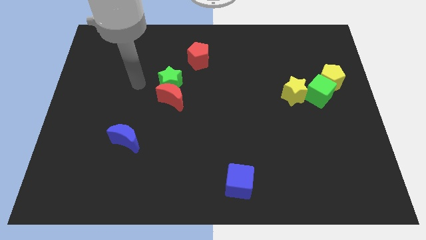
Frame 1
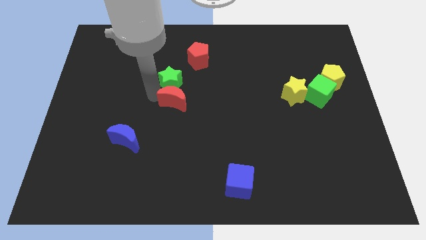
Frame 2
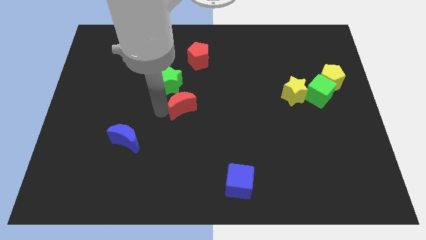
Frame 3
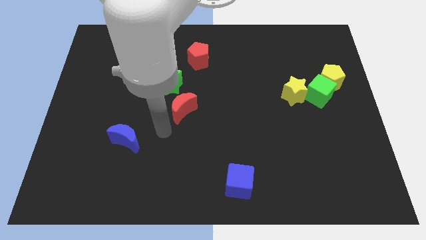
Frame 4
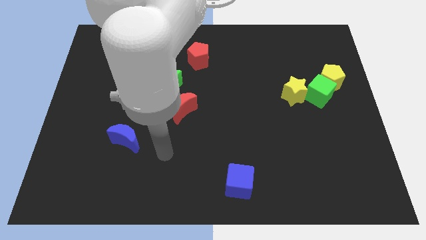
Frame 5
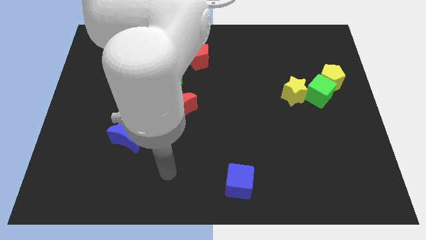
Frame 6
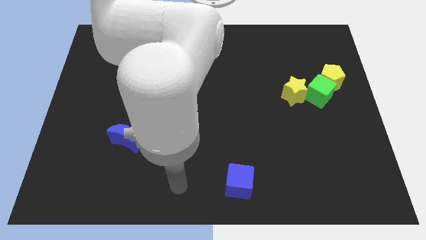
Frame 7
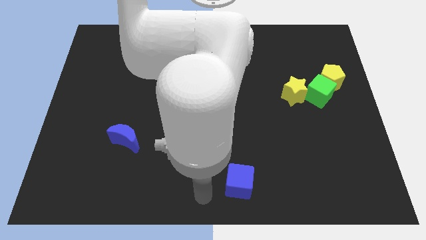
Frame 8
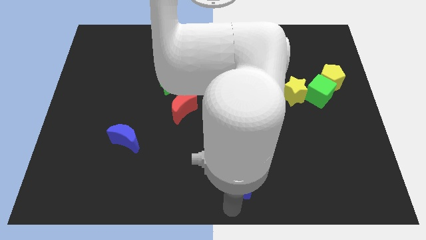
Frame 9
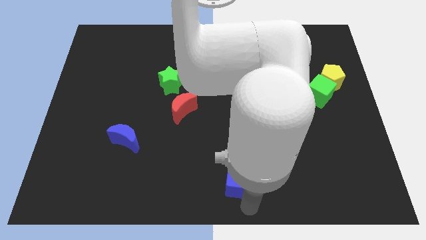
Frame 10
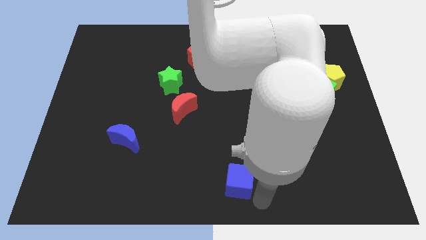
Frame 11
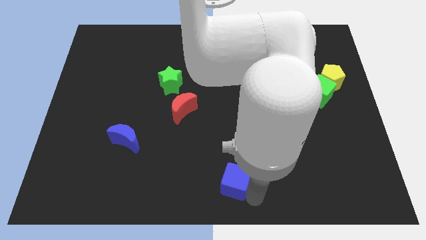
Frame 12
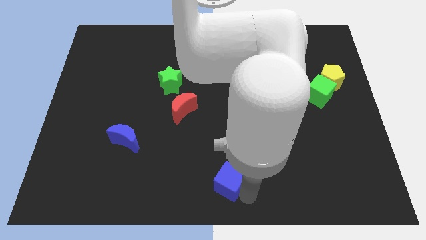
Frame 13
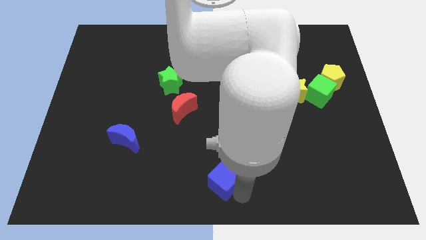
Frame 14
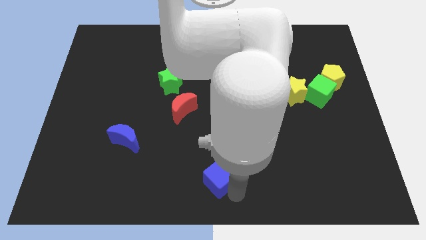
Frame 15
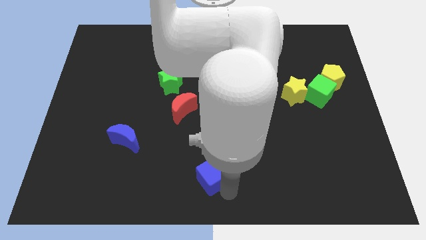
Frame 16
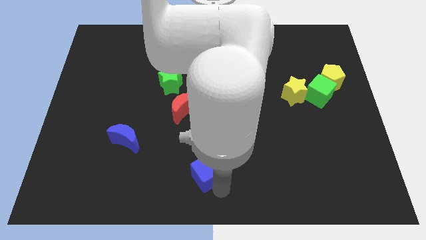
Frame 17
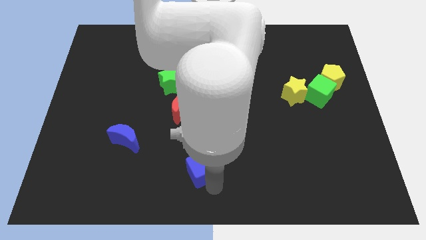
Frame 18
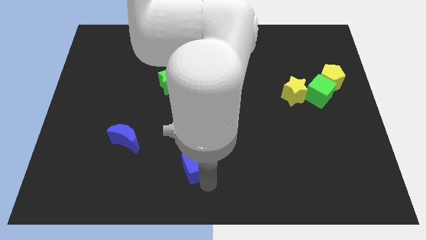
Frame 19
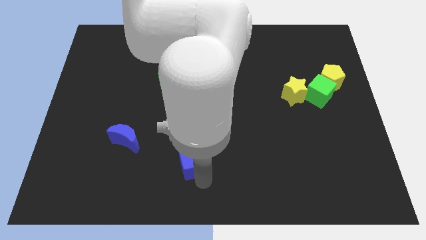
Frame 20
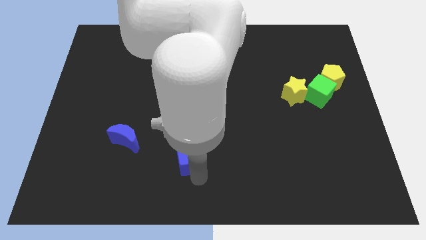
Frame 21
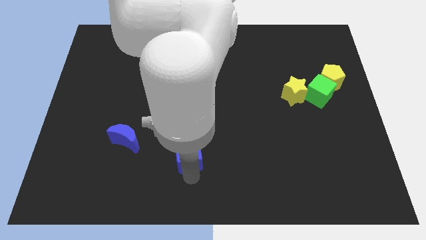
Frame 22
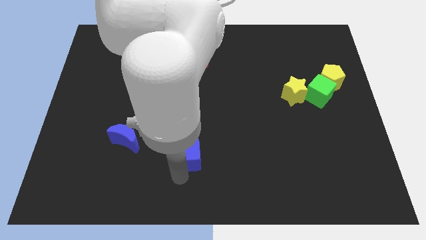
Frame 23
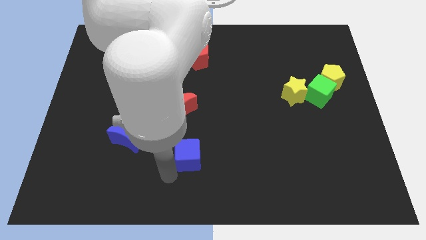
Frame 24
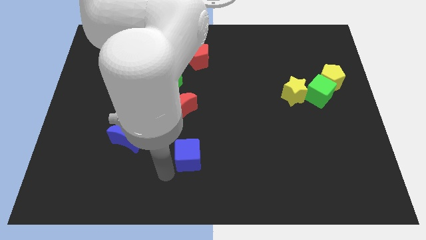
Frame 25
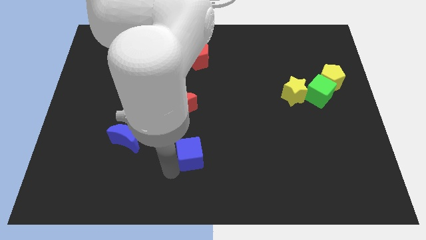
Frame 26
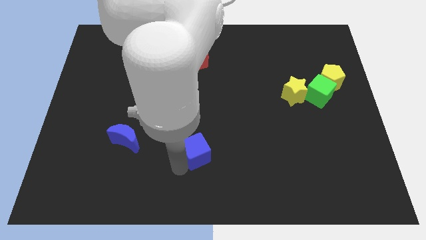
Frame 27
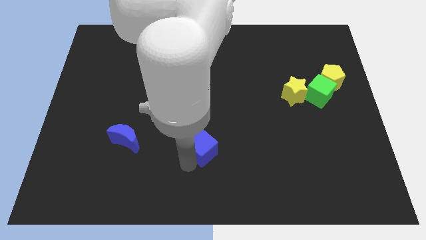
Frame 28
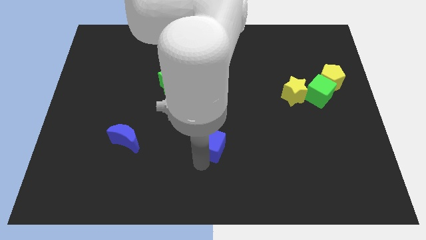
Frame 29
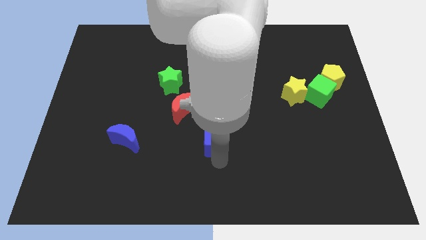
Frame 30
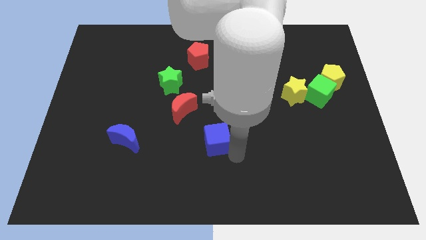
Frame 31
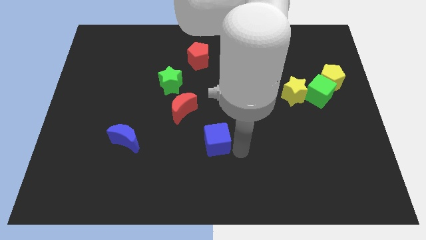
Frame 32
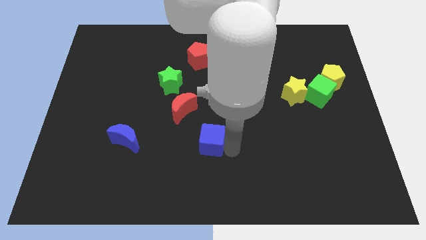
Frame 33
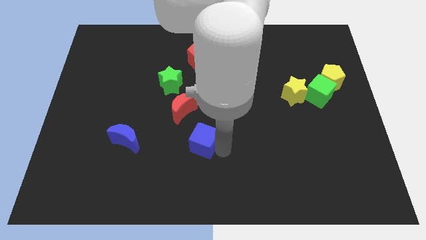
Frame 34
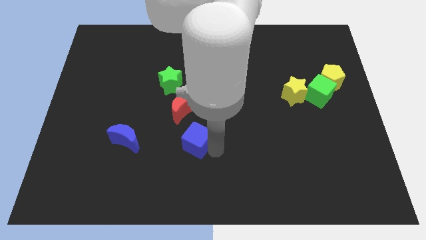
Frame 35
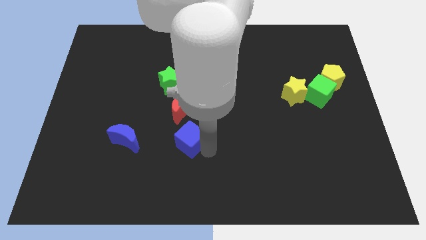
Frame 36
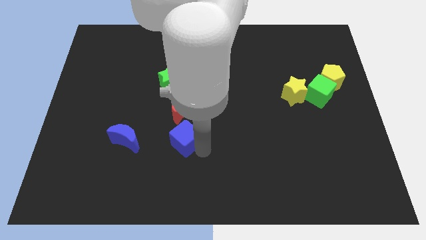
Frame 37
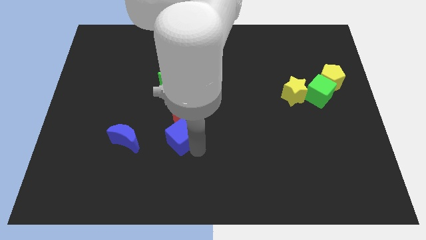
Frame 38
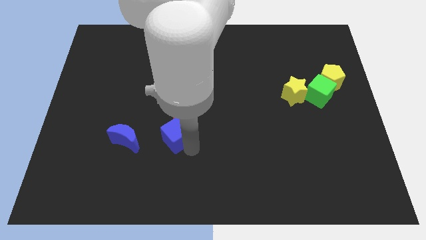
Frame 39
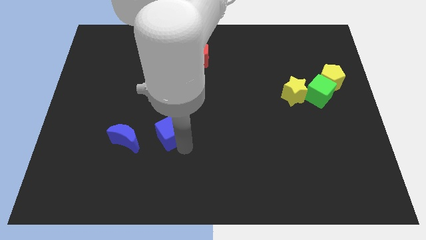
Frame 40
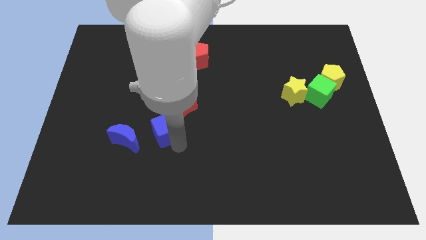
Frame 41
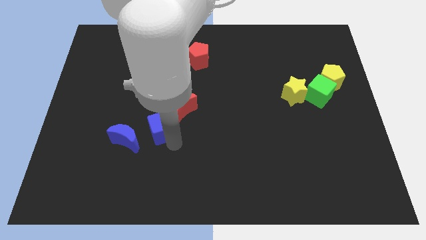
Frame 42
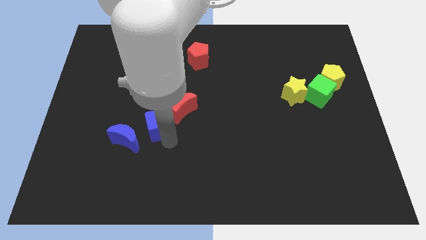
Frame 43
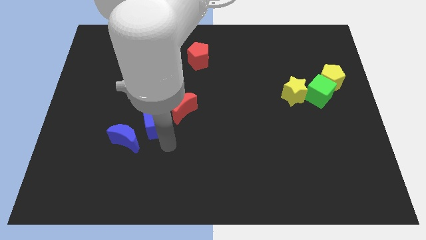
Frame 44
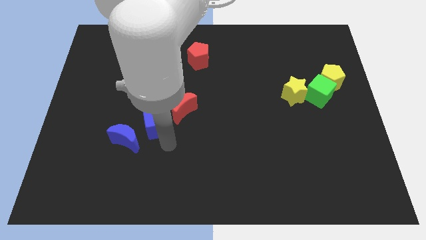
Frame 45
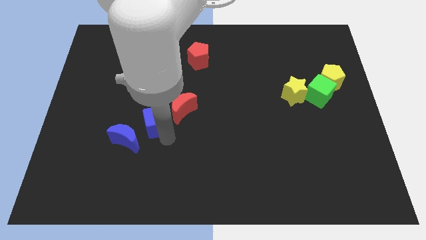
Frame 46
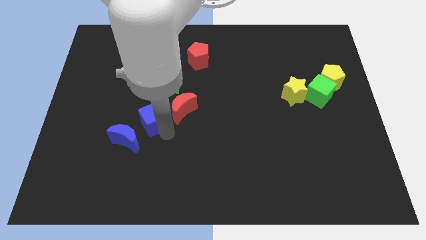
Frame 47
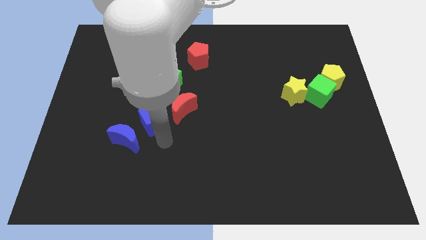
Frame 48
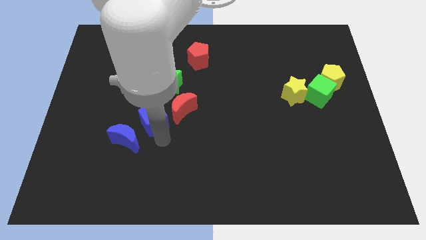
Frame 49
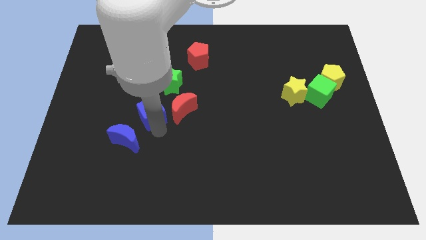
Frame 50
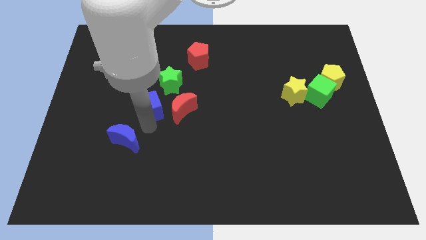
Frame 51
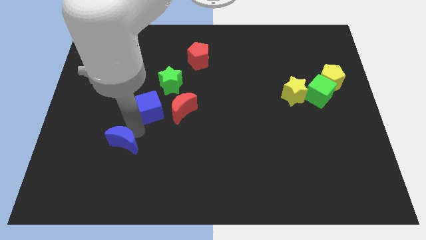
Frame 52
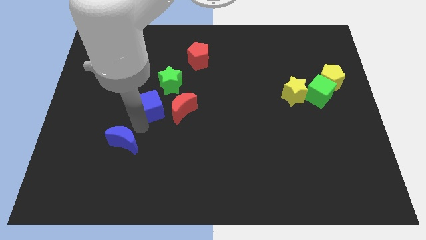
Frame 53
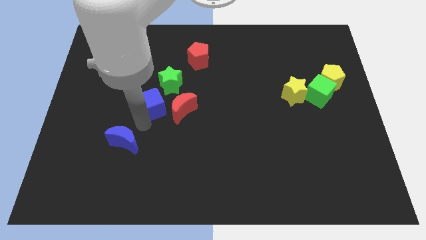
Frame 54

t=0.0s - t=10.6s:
move the blue cube to the top left of the red moon

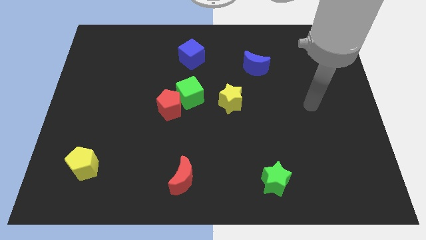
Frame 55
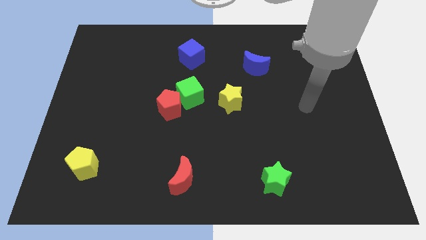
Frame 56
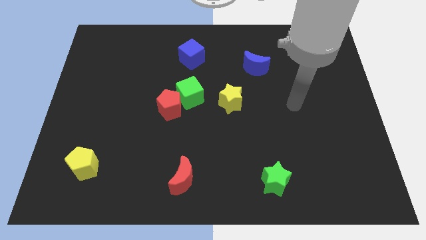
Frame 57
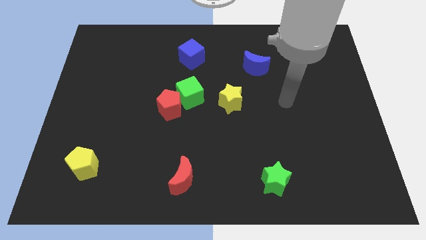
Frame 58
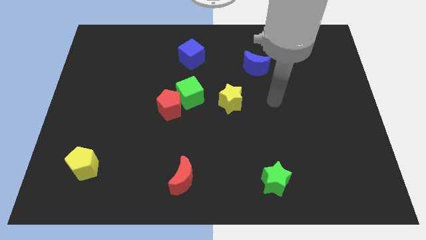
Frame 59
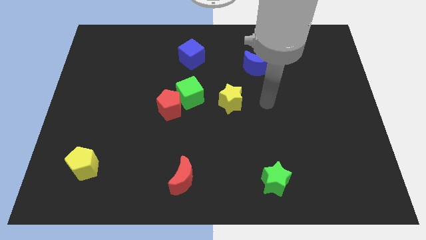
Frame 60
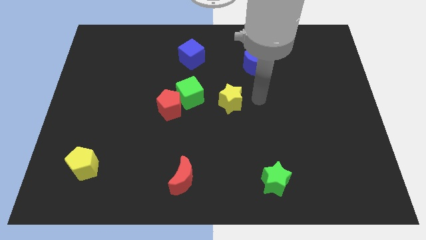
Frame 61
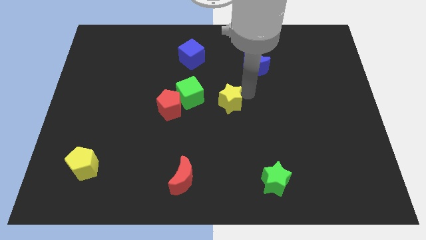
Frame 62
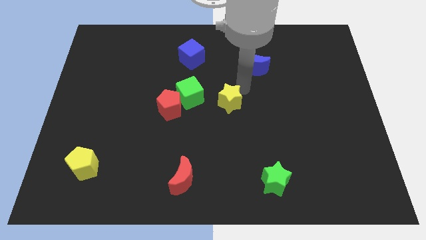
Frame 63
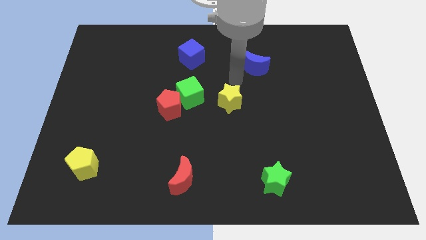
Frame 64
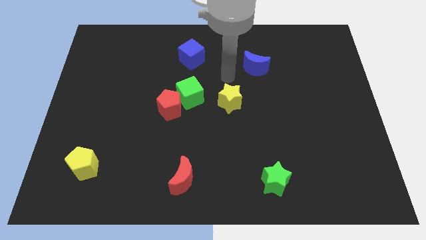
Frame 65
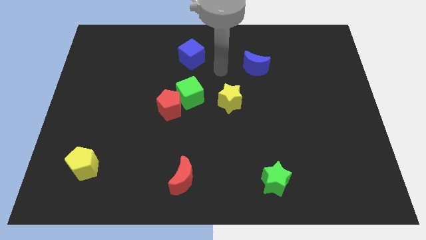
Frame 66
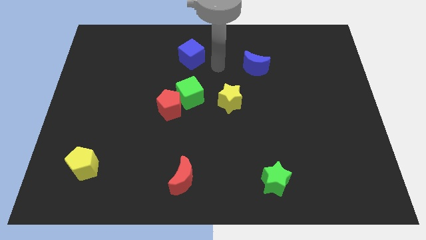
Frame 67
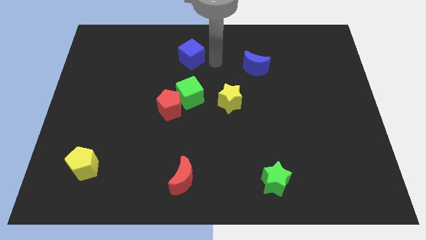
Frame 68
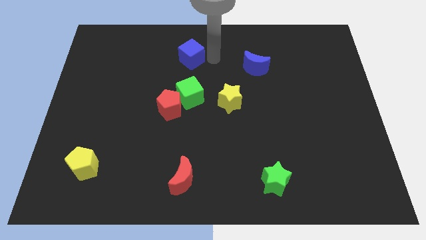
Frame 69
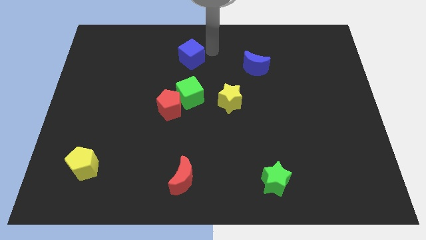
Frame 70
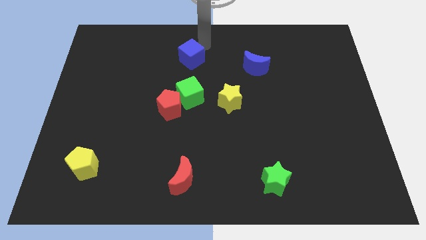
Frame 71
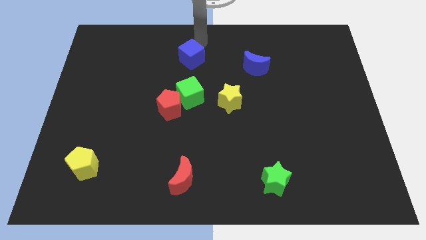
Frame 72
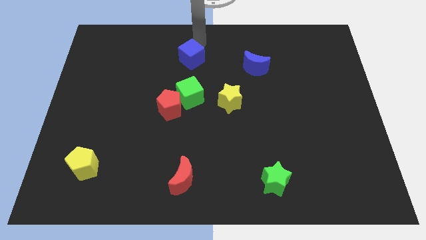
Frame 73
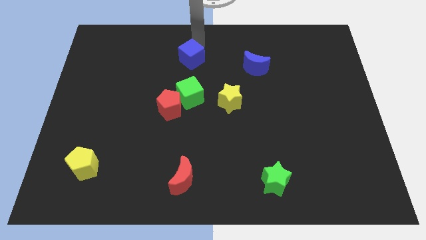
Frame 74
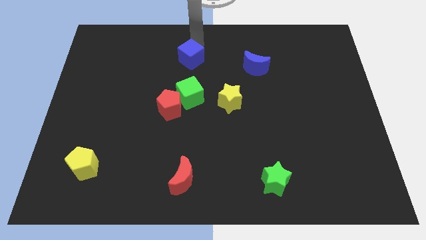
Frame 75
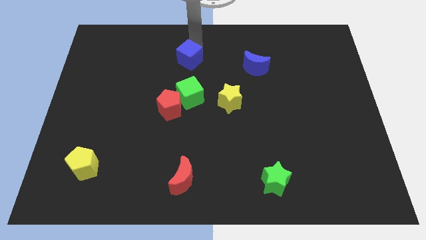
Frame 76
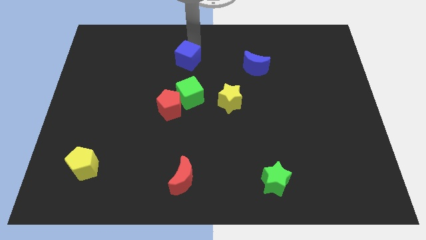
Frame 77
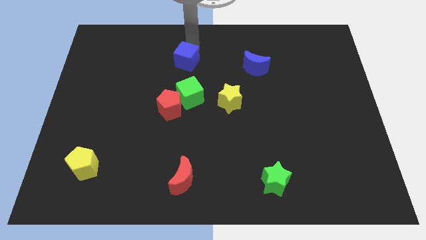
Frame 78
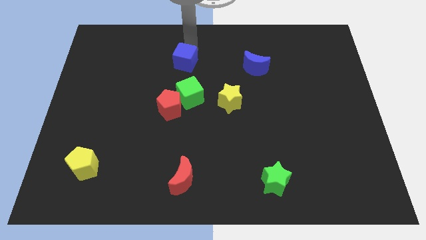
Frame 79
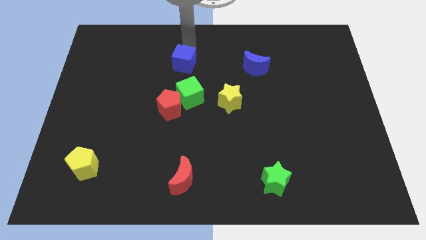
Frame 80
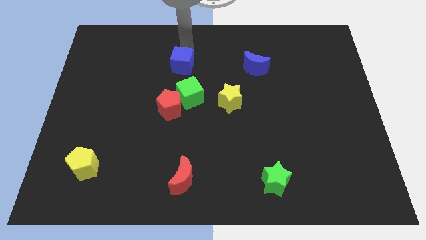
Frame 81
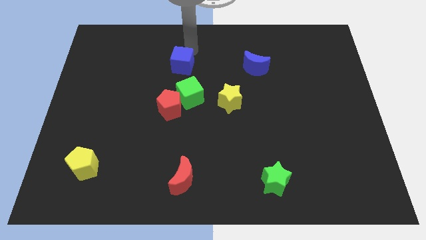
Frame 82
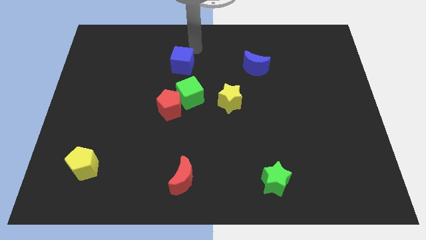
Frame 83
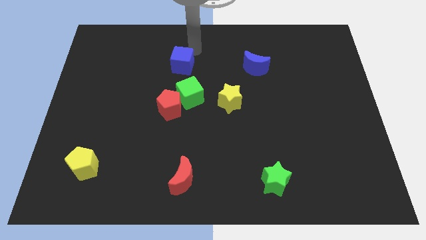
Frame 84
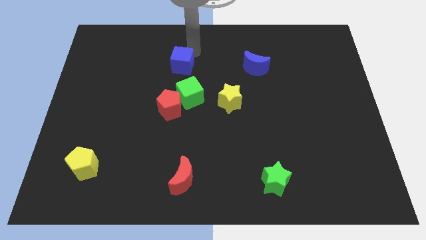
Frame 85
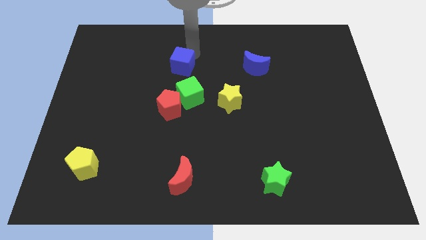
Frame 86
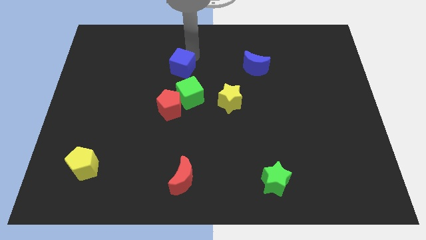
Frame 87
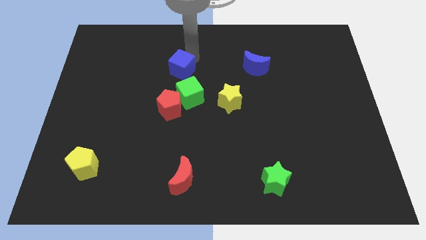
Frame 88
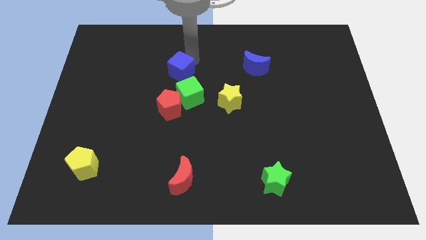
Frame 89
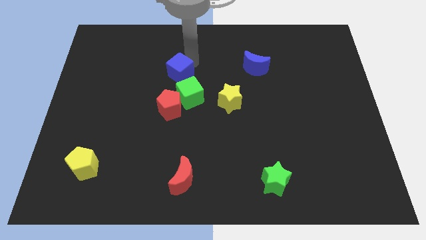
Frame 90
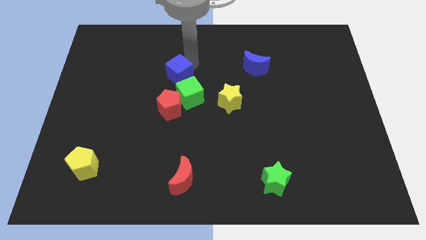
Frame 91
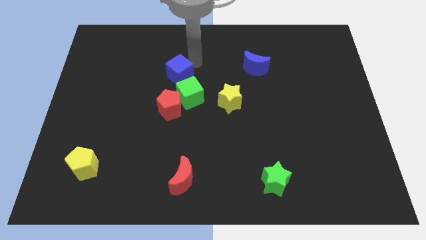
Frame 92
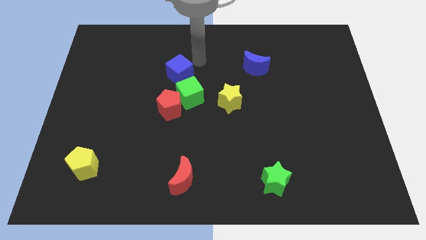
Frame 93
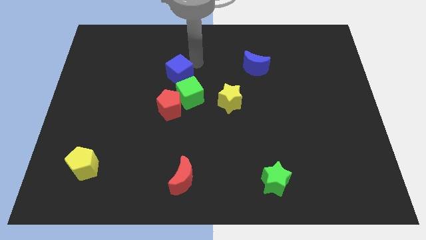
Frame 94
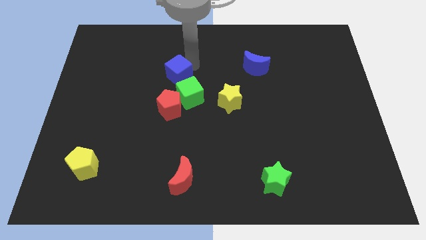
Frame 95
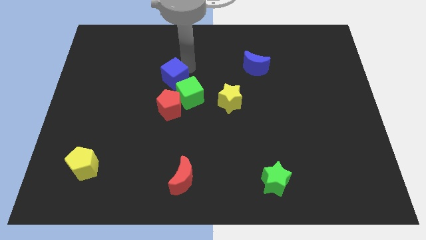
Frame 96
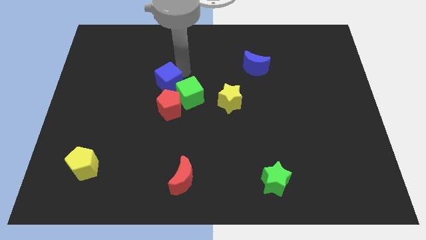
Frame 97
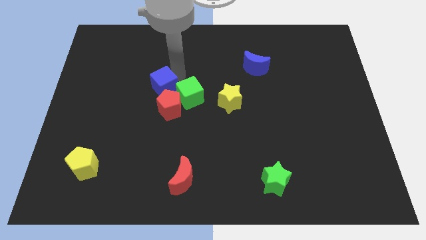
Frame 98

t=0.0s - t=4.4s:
slide the blue cube to the top left side of the red pentagon
